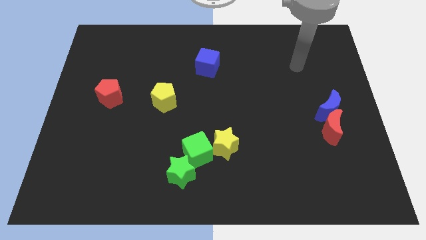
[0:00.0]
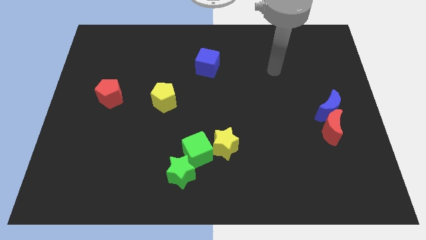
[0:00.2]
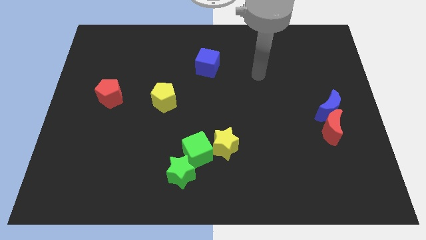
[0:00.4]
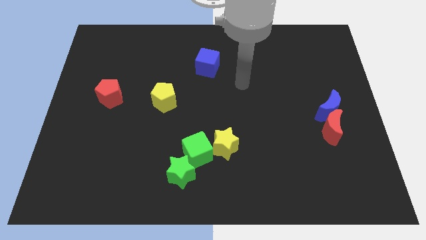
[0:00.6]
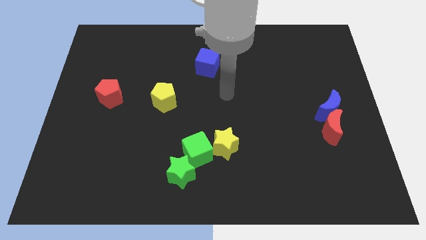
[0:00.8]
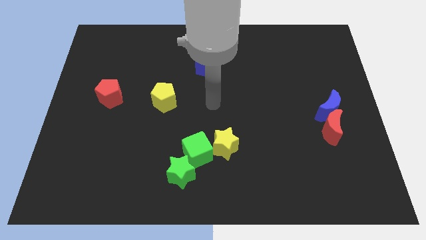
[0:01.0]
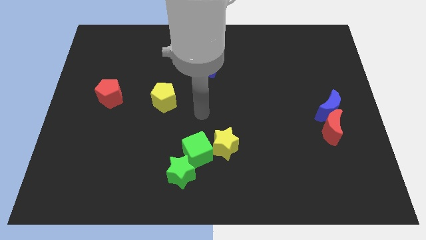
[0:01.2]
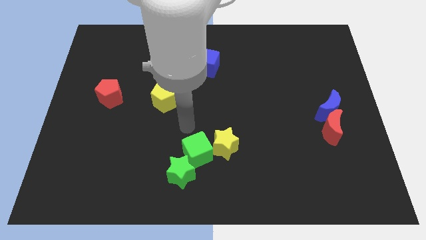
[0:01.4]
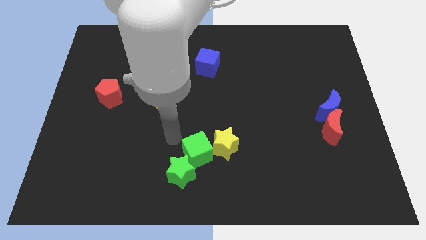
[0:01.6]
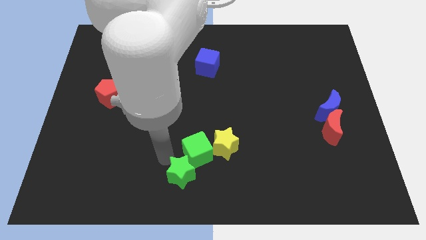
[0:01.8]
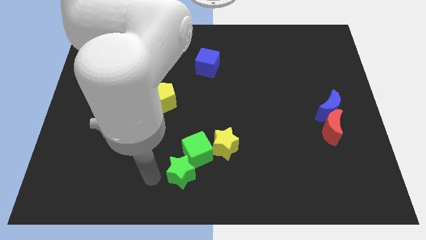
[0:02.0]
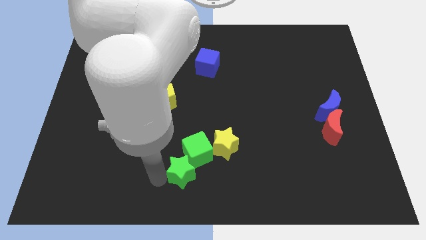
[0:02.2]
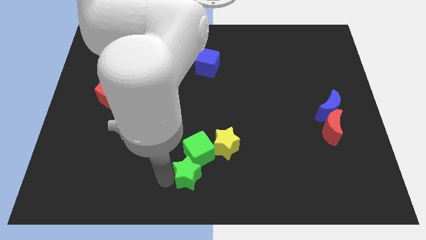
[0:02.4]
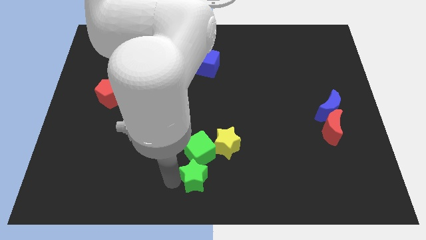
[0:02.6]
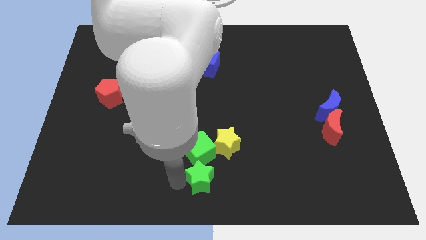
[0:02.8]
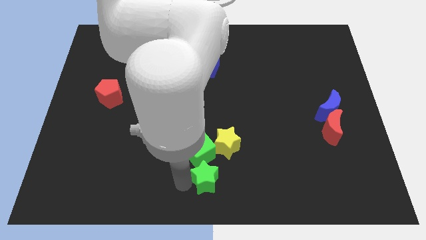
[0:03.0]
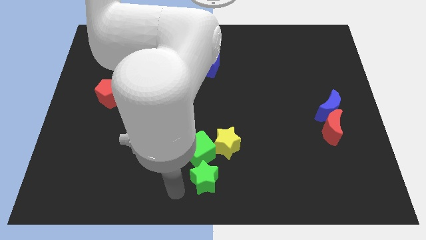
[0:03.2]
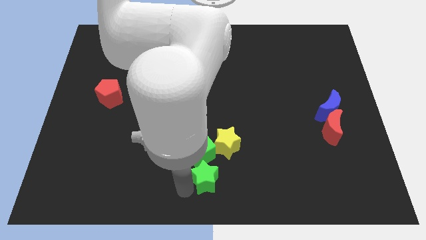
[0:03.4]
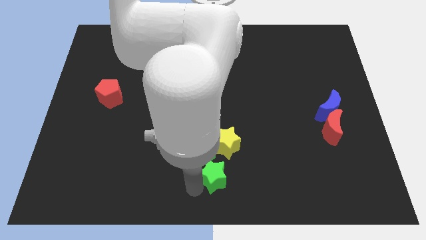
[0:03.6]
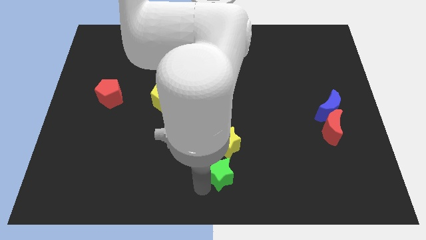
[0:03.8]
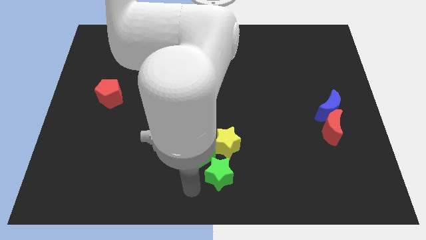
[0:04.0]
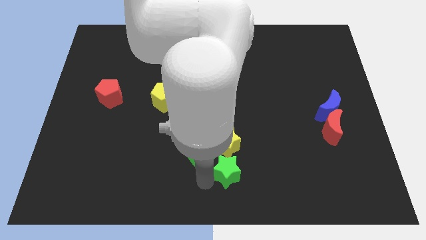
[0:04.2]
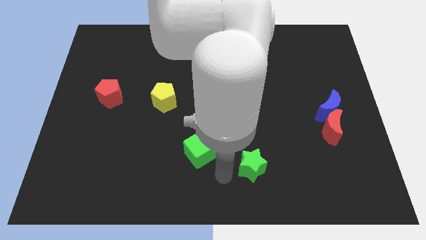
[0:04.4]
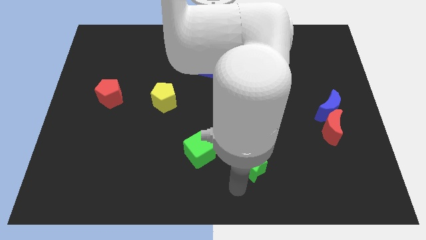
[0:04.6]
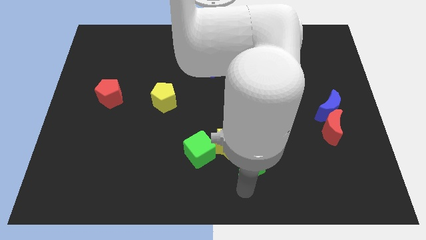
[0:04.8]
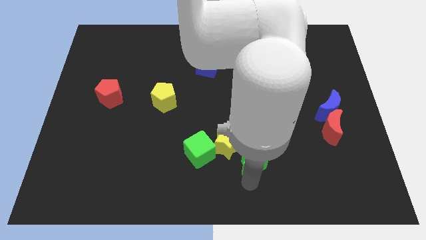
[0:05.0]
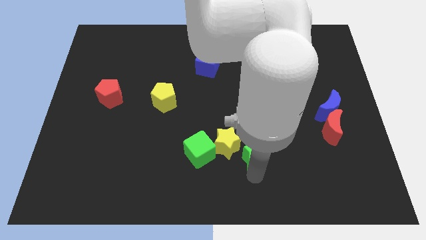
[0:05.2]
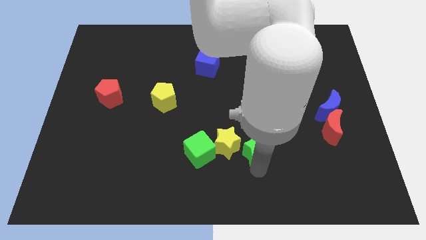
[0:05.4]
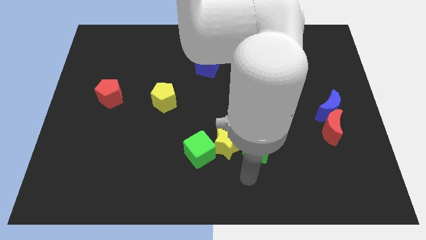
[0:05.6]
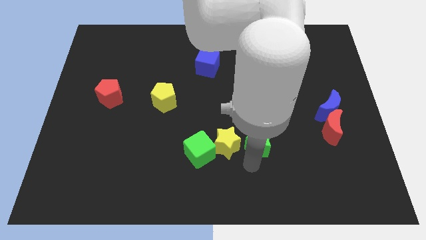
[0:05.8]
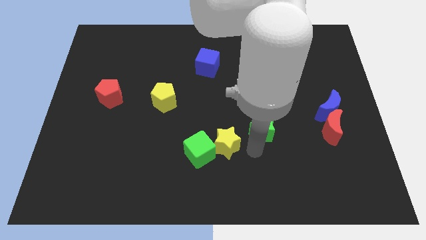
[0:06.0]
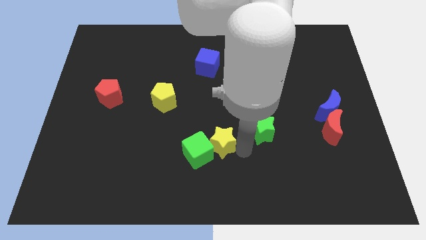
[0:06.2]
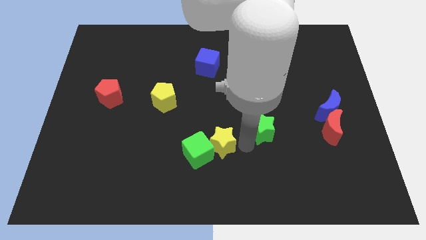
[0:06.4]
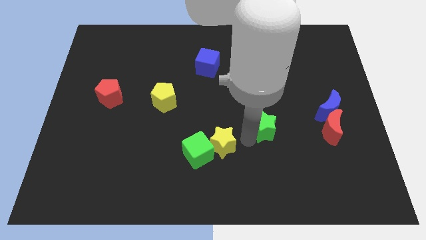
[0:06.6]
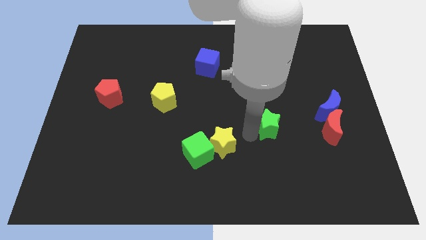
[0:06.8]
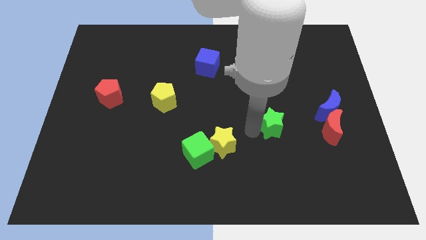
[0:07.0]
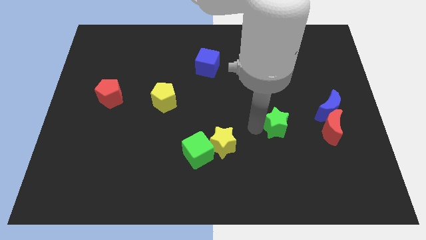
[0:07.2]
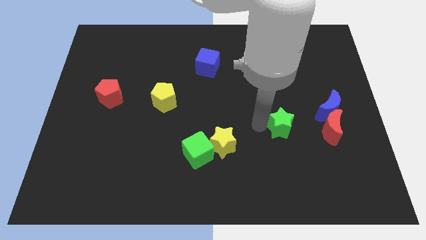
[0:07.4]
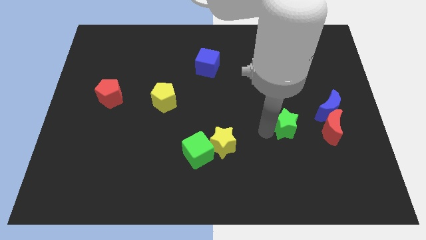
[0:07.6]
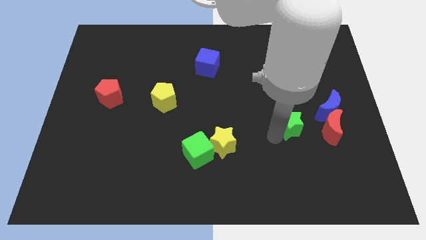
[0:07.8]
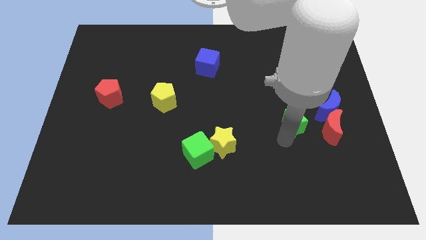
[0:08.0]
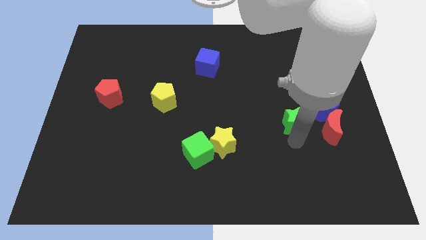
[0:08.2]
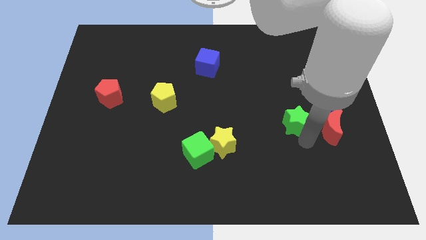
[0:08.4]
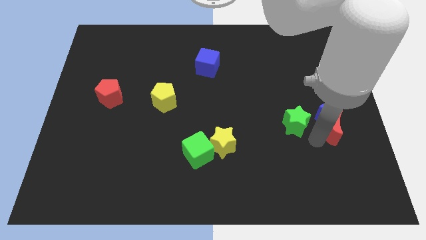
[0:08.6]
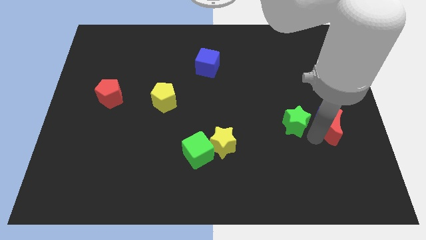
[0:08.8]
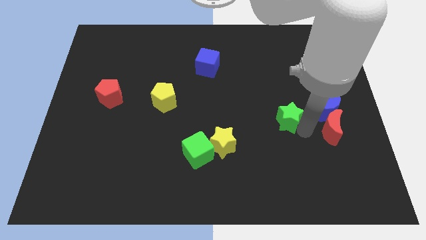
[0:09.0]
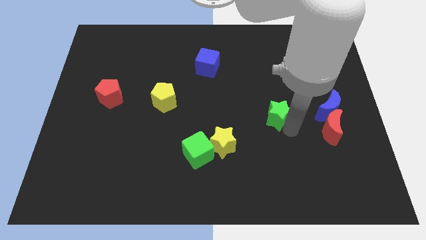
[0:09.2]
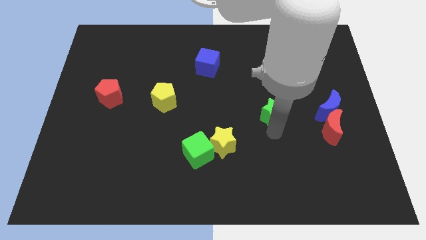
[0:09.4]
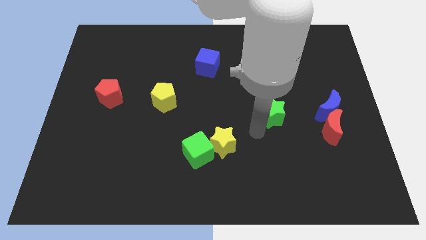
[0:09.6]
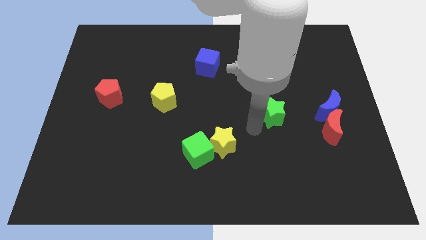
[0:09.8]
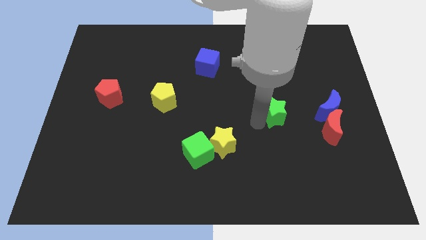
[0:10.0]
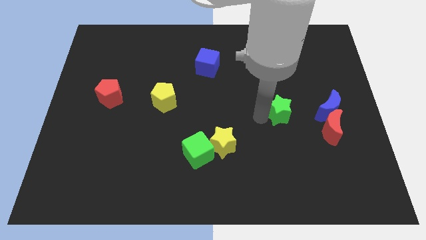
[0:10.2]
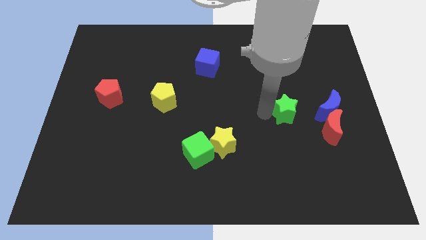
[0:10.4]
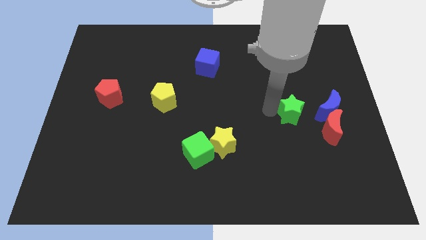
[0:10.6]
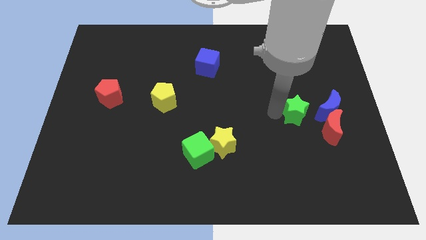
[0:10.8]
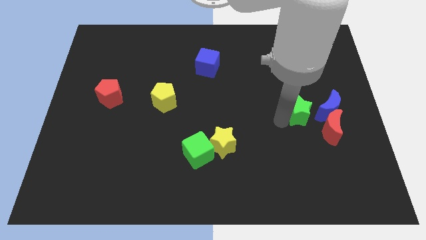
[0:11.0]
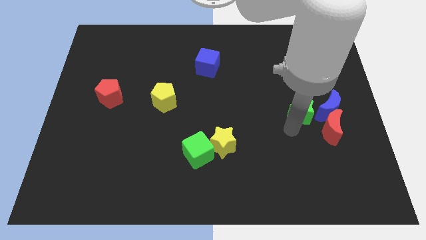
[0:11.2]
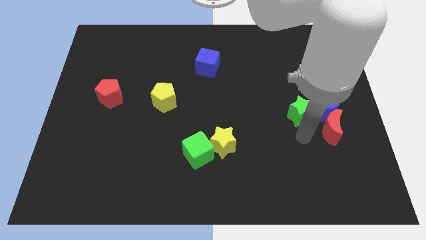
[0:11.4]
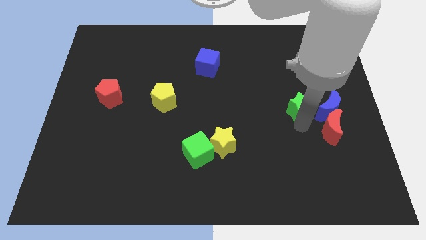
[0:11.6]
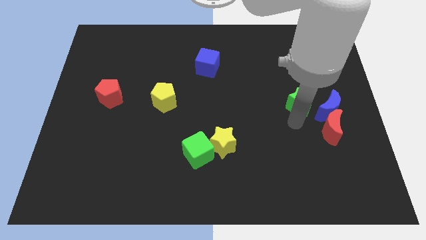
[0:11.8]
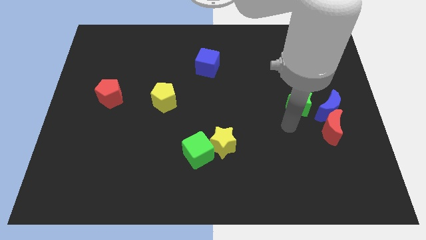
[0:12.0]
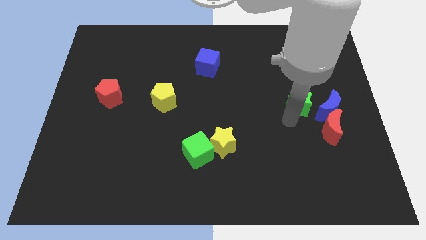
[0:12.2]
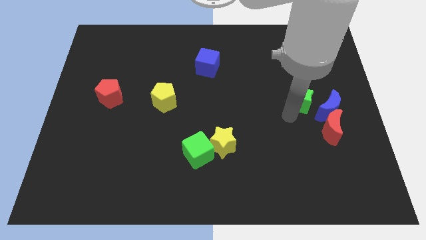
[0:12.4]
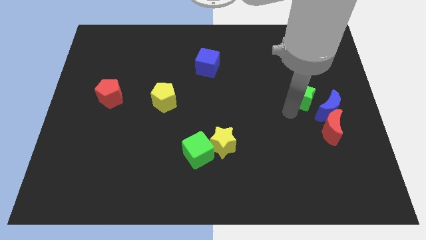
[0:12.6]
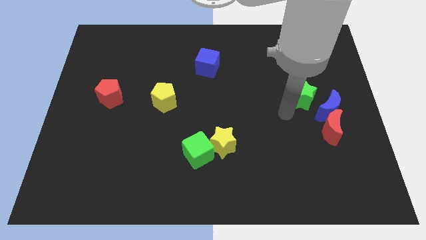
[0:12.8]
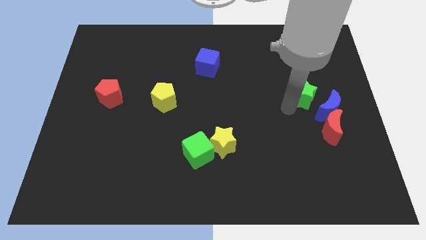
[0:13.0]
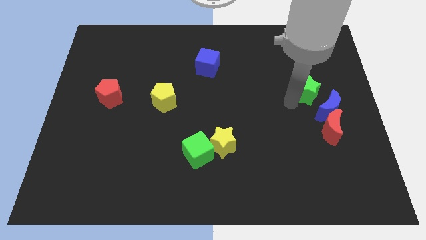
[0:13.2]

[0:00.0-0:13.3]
move the green star above the blue moon

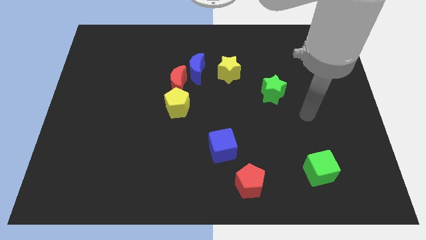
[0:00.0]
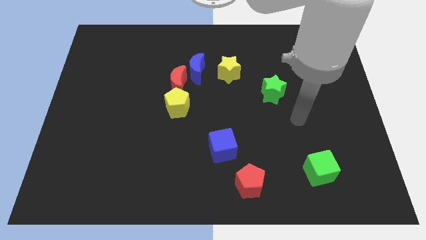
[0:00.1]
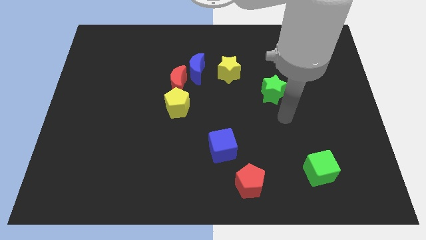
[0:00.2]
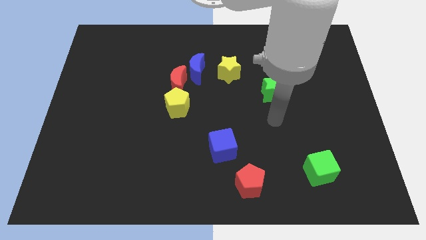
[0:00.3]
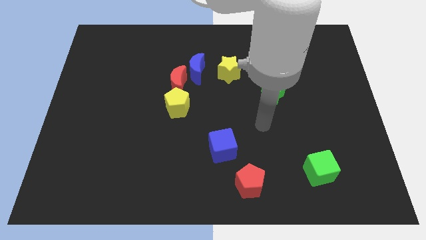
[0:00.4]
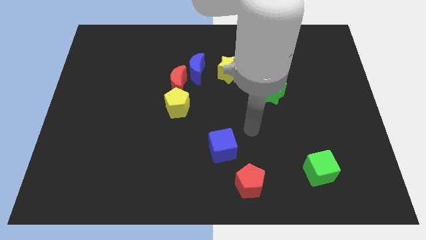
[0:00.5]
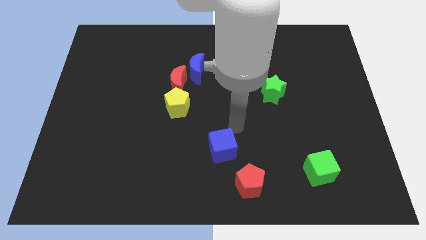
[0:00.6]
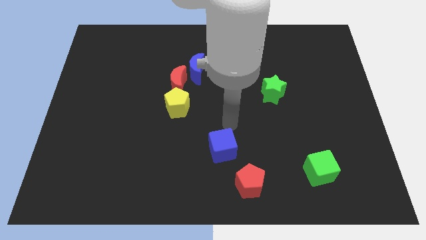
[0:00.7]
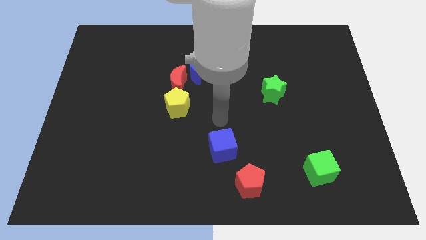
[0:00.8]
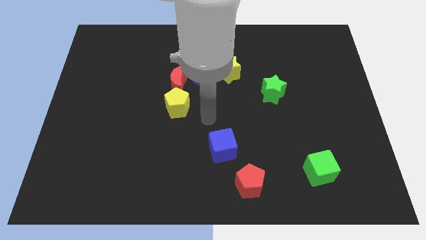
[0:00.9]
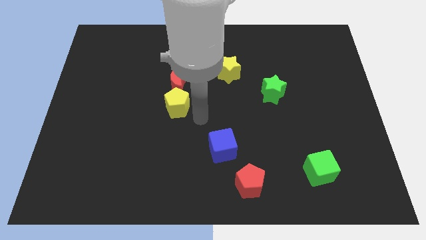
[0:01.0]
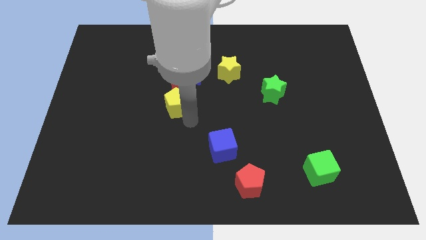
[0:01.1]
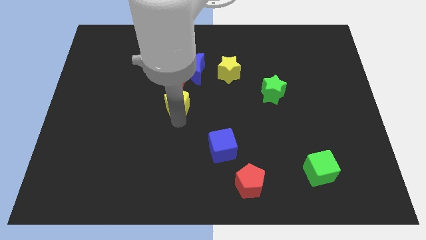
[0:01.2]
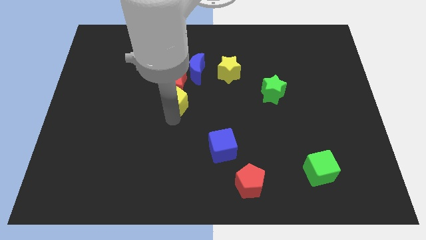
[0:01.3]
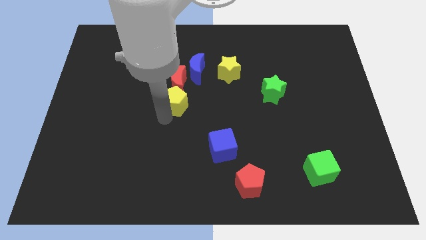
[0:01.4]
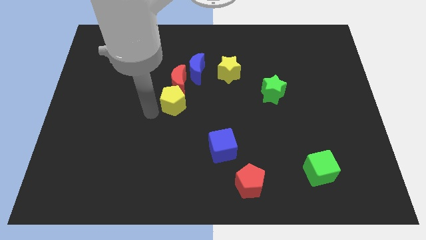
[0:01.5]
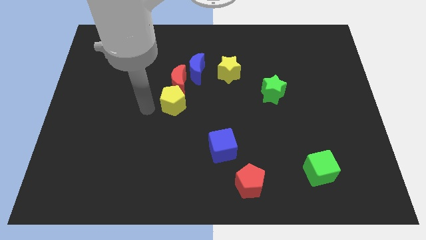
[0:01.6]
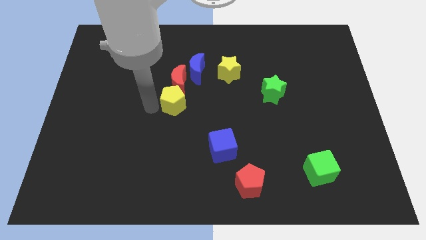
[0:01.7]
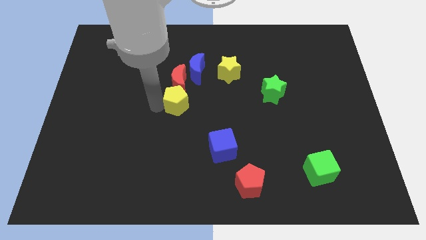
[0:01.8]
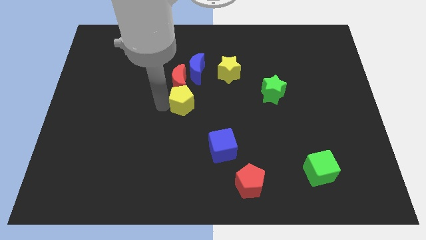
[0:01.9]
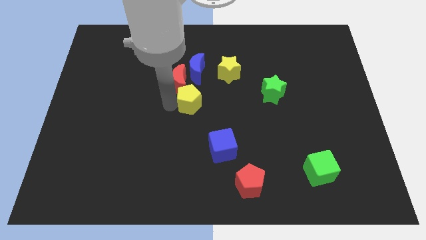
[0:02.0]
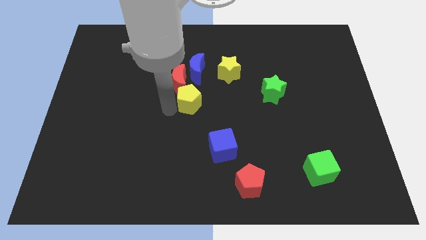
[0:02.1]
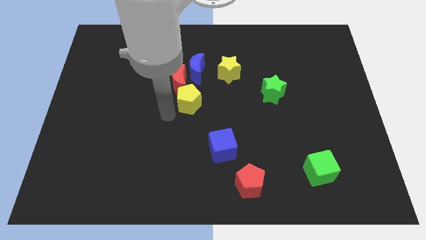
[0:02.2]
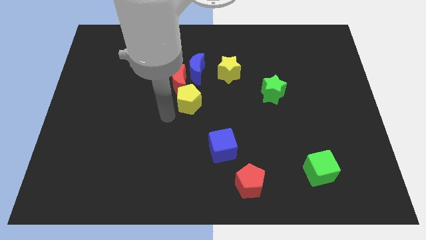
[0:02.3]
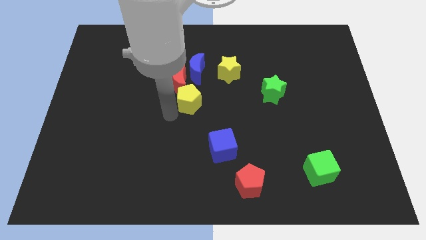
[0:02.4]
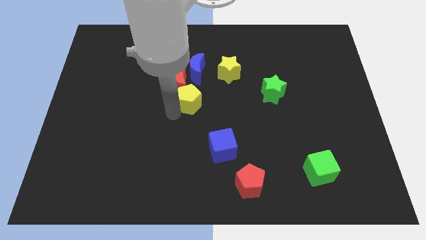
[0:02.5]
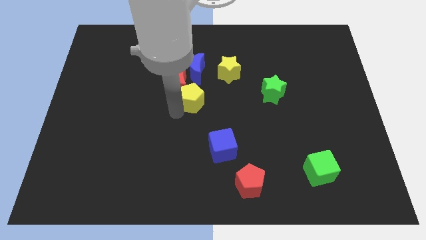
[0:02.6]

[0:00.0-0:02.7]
slide the yellow pentagon to the bottom left of the yellow star
